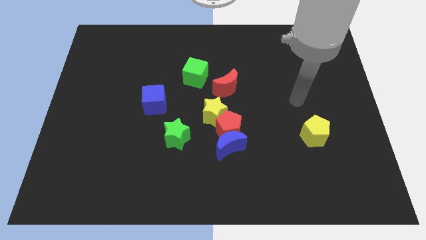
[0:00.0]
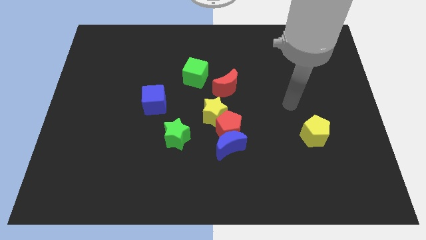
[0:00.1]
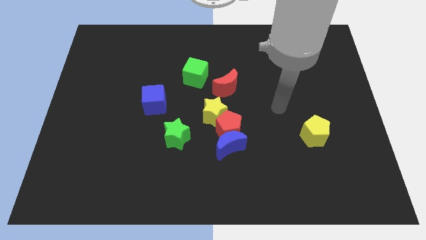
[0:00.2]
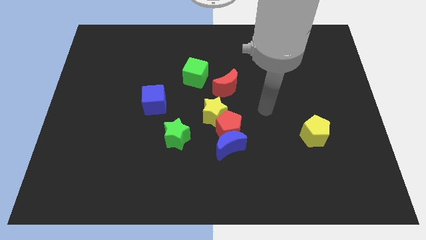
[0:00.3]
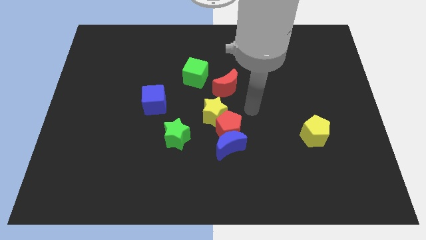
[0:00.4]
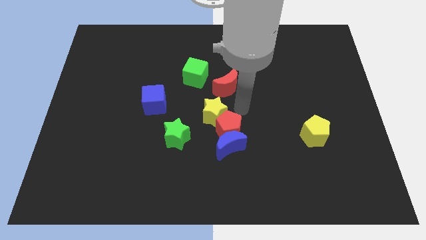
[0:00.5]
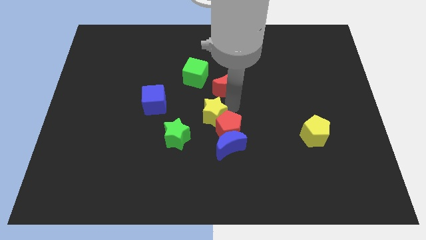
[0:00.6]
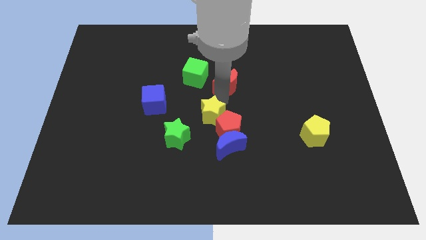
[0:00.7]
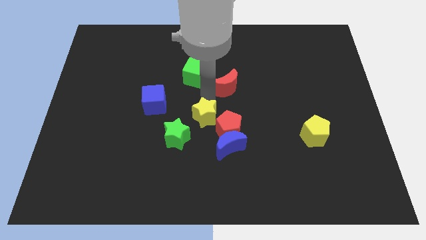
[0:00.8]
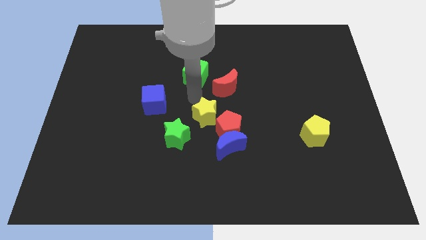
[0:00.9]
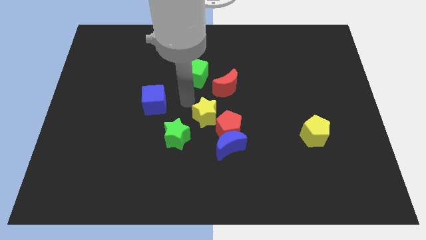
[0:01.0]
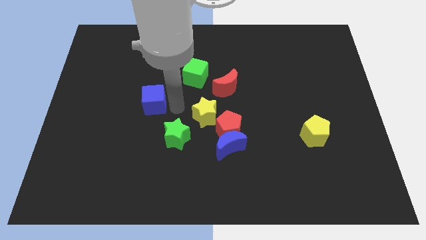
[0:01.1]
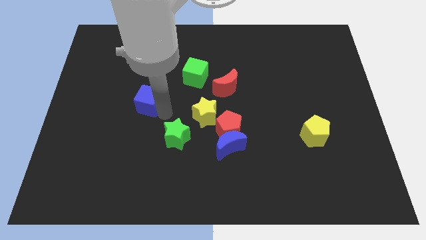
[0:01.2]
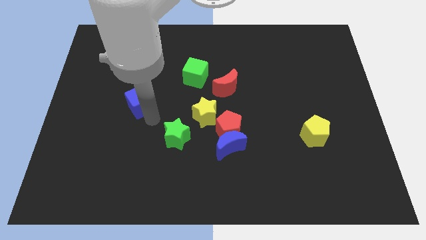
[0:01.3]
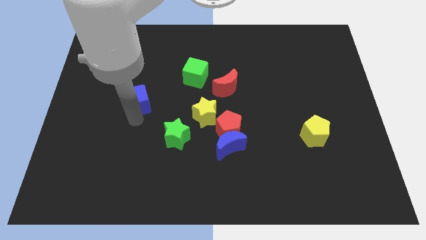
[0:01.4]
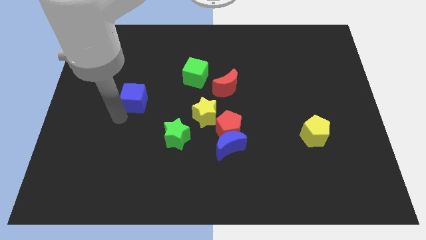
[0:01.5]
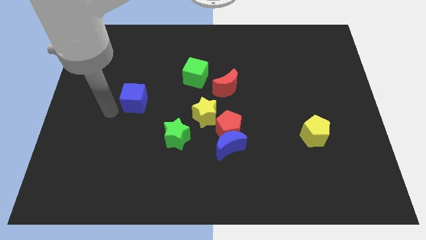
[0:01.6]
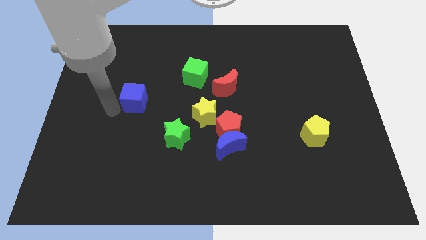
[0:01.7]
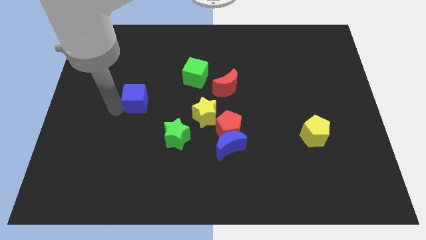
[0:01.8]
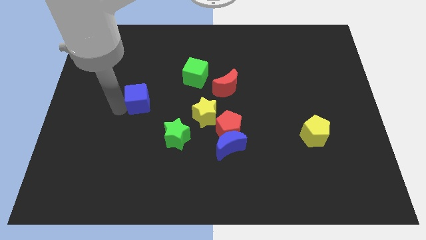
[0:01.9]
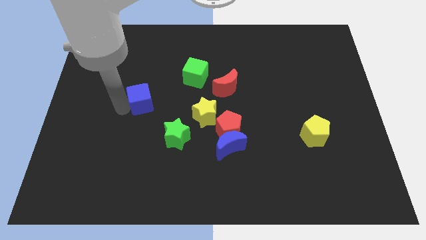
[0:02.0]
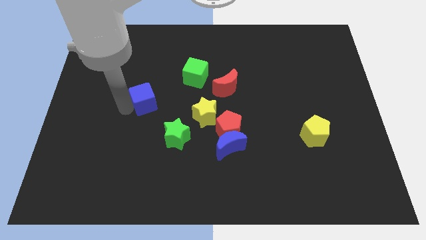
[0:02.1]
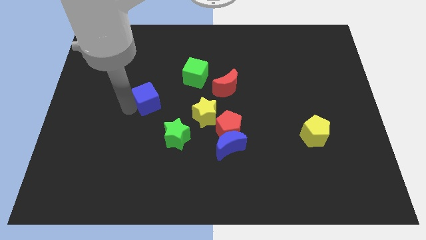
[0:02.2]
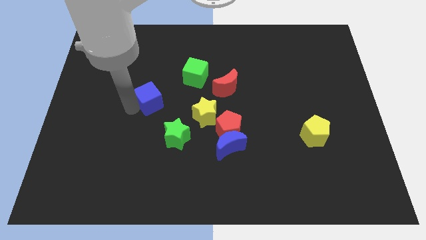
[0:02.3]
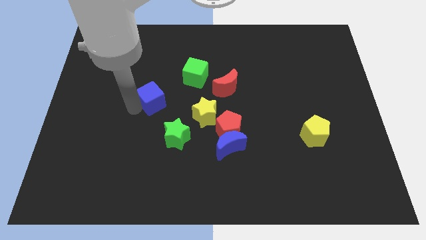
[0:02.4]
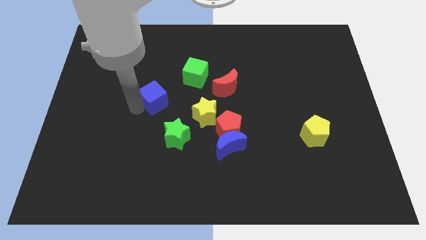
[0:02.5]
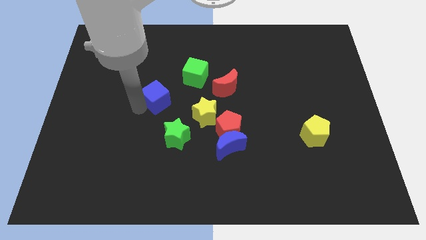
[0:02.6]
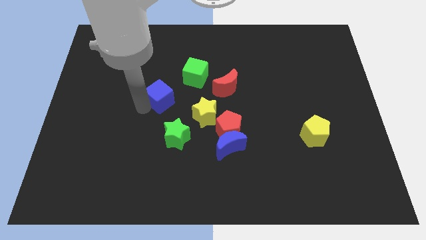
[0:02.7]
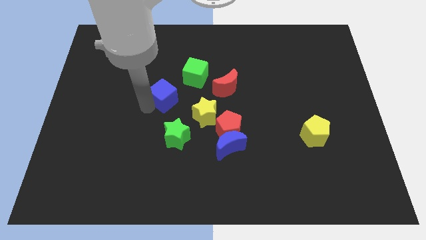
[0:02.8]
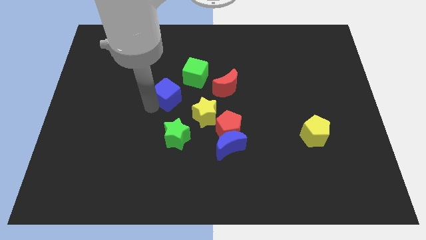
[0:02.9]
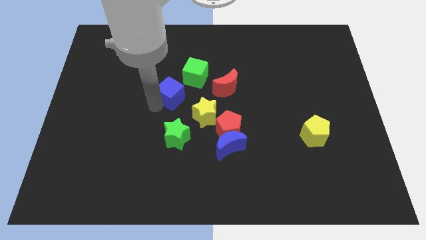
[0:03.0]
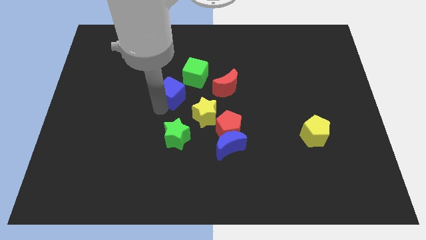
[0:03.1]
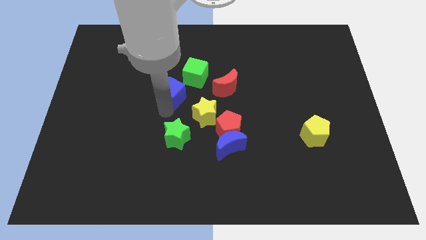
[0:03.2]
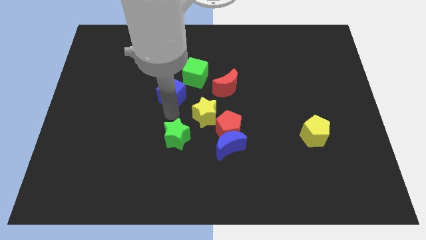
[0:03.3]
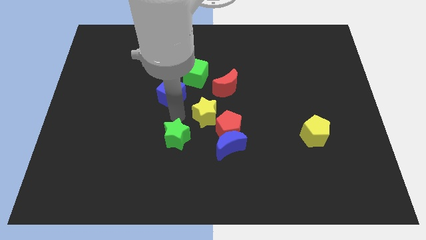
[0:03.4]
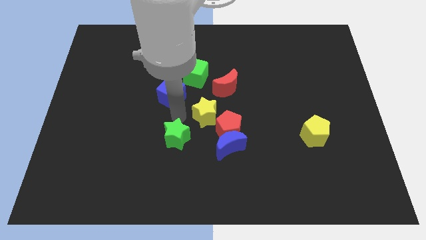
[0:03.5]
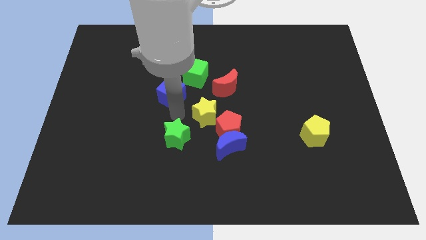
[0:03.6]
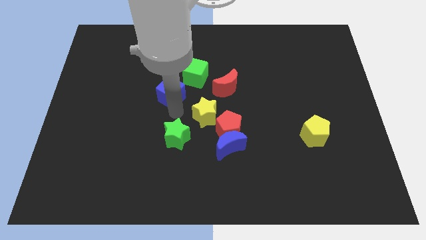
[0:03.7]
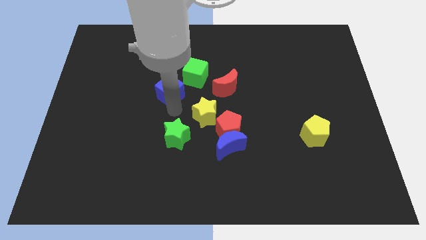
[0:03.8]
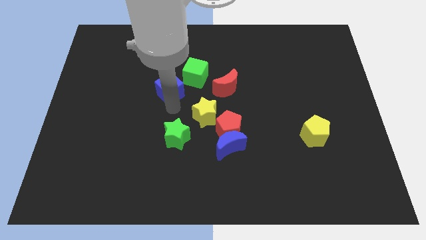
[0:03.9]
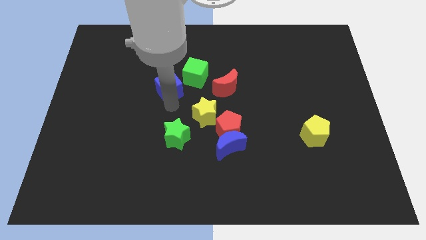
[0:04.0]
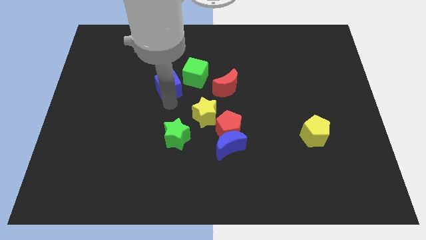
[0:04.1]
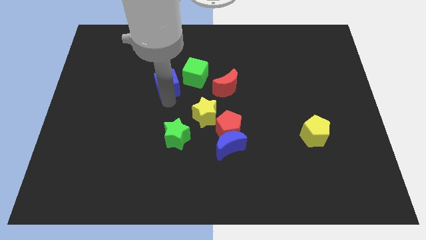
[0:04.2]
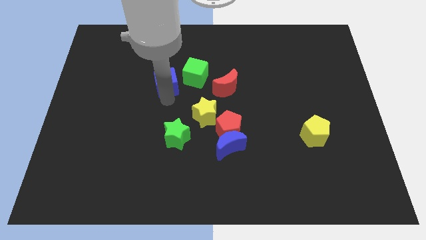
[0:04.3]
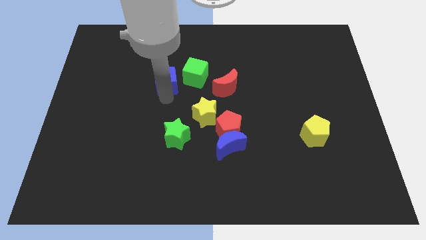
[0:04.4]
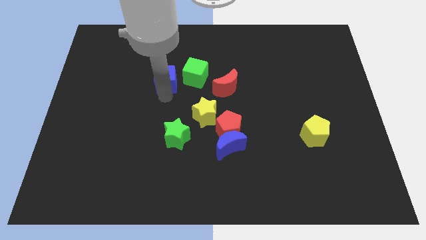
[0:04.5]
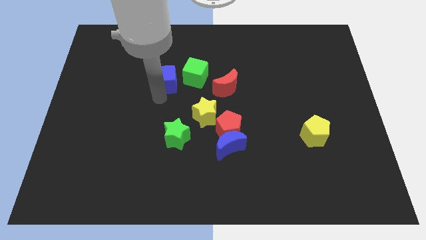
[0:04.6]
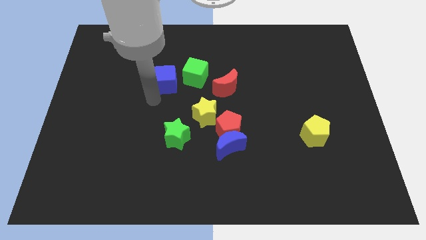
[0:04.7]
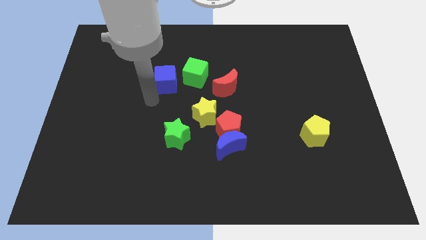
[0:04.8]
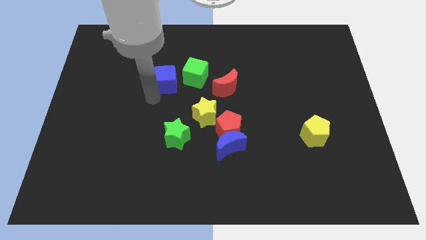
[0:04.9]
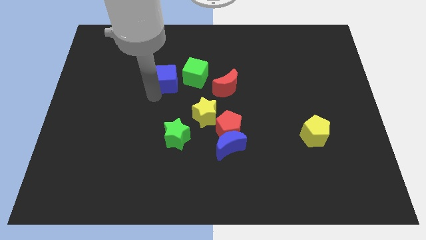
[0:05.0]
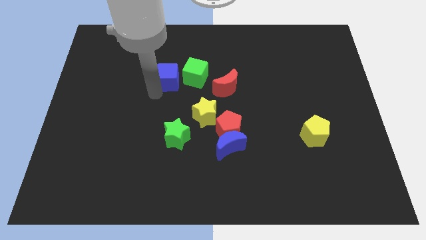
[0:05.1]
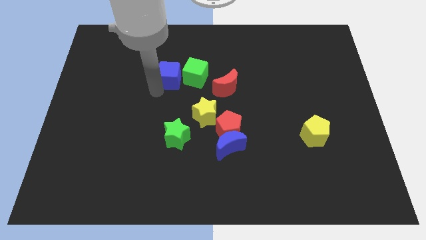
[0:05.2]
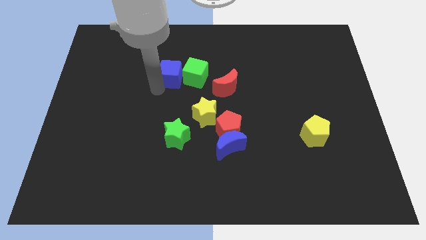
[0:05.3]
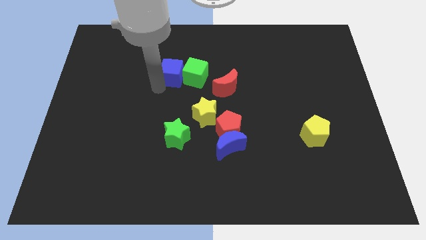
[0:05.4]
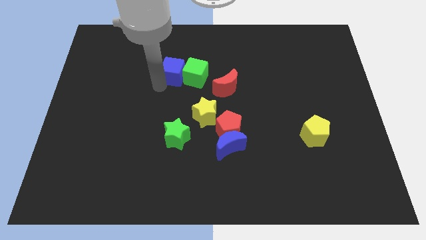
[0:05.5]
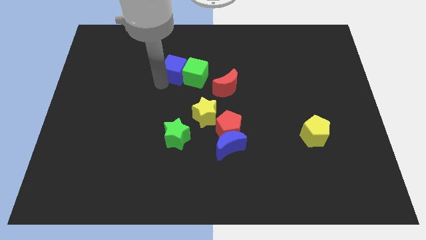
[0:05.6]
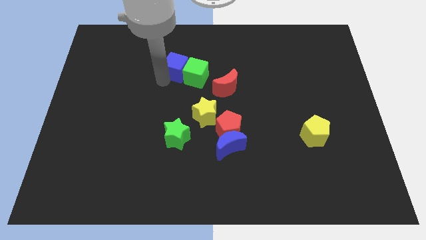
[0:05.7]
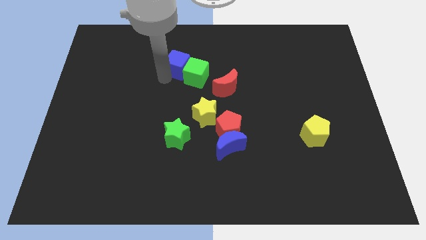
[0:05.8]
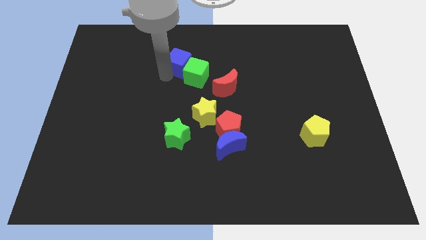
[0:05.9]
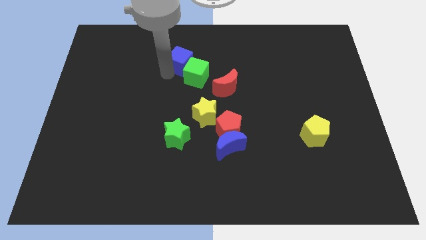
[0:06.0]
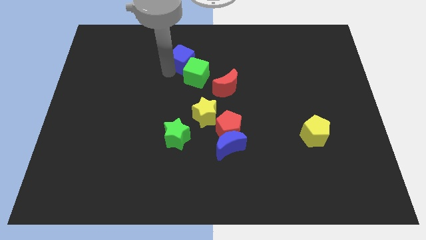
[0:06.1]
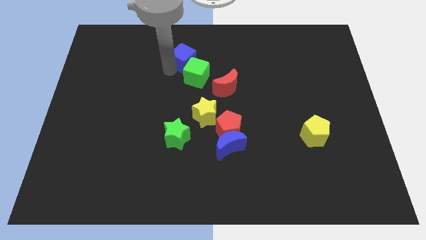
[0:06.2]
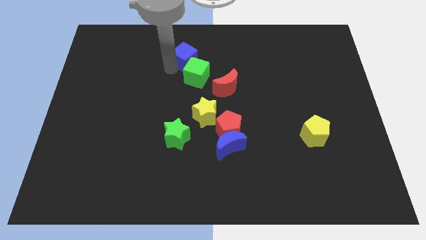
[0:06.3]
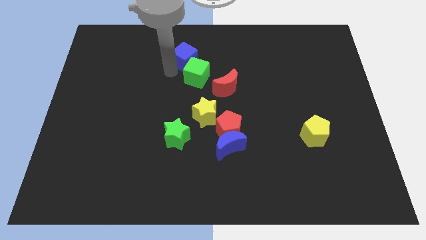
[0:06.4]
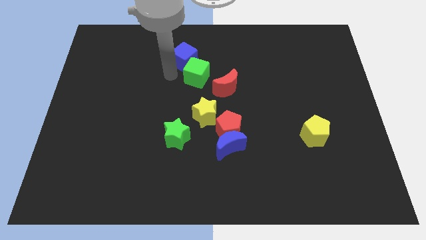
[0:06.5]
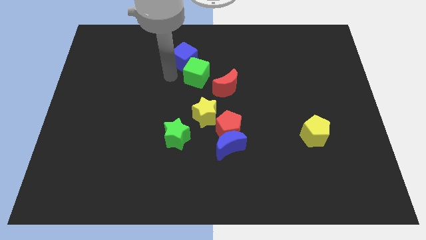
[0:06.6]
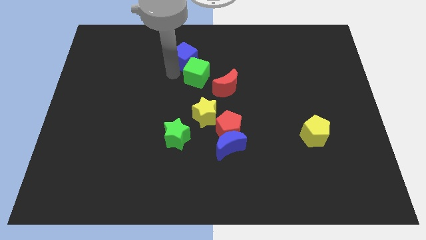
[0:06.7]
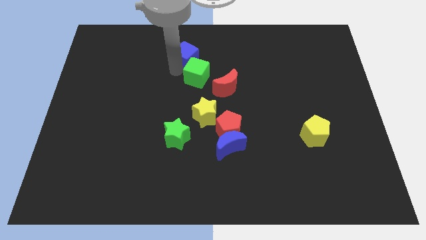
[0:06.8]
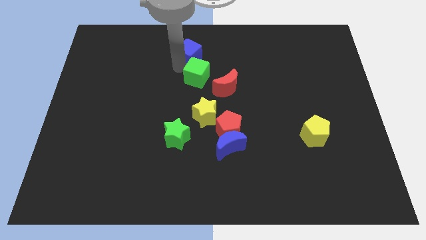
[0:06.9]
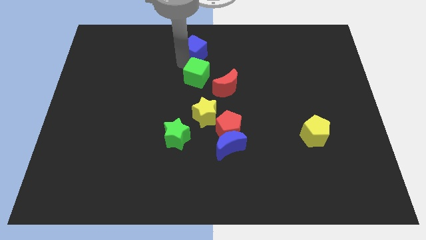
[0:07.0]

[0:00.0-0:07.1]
slide the blue cube to the top side
